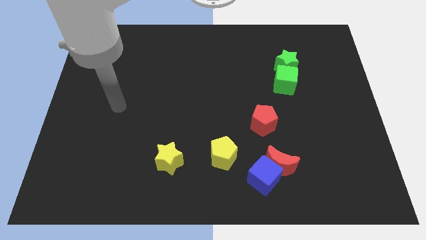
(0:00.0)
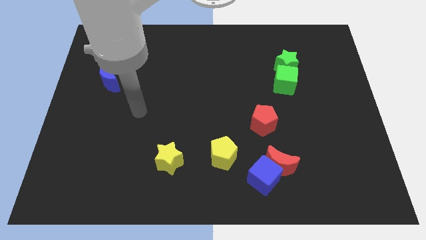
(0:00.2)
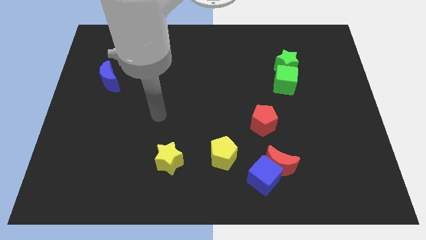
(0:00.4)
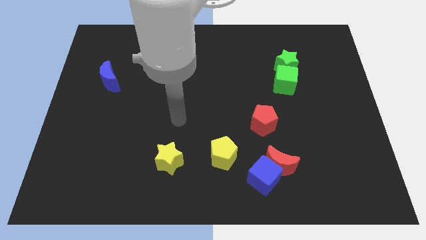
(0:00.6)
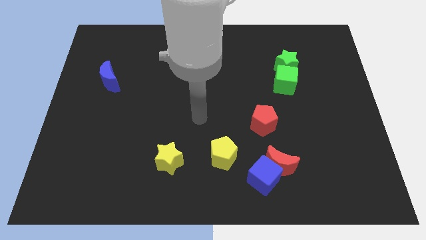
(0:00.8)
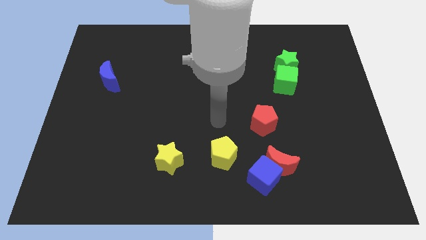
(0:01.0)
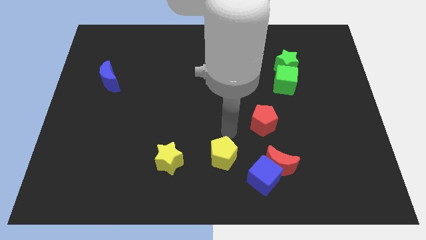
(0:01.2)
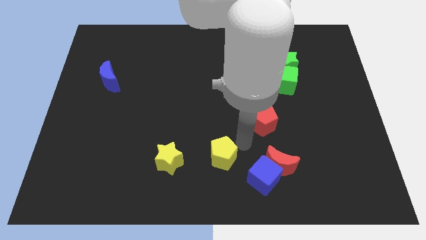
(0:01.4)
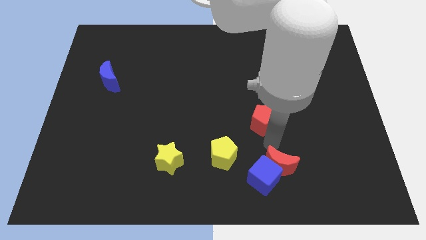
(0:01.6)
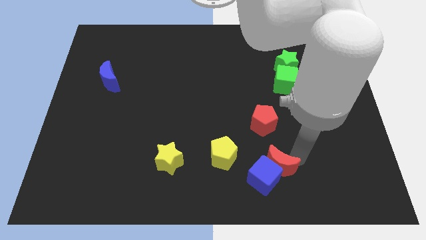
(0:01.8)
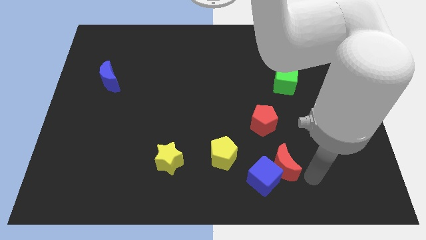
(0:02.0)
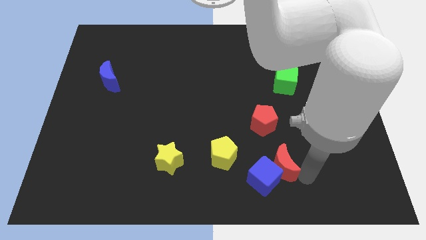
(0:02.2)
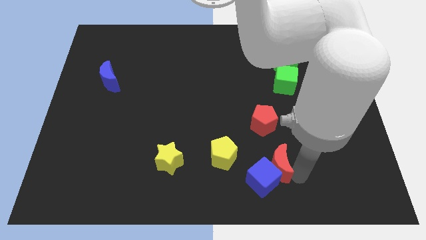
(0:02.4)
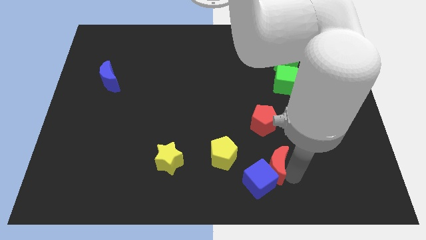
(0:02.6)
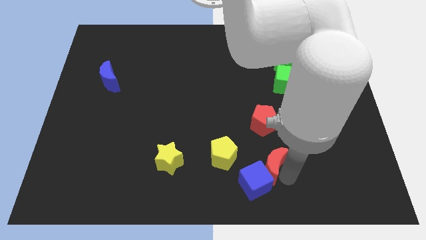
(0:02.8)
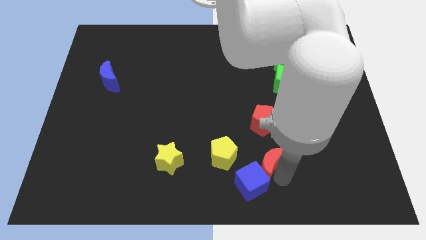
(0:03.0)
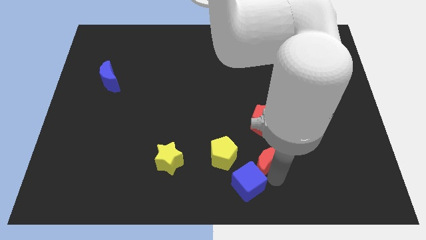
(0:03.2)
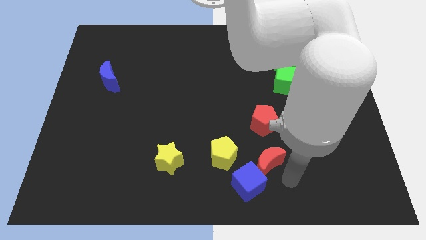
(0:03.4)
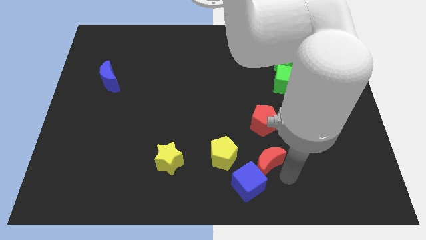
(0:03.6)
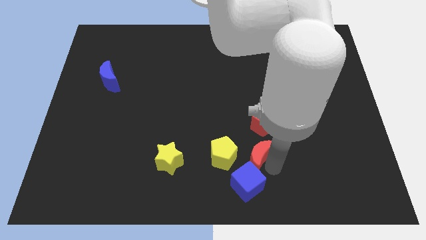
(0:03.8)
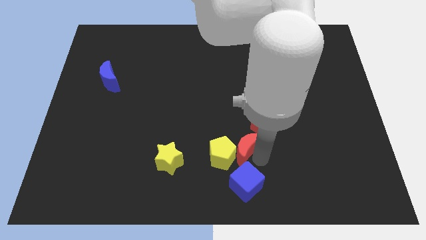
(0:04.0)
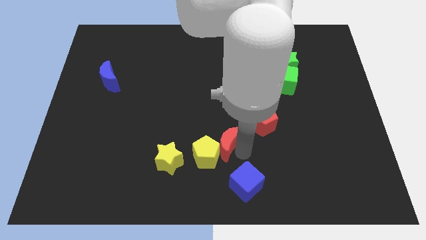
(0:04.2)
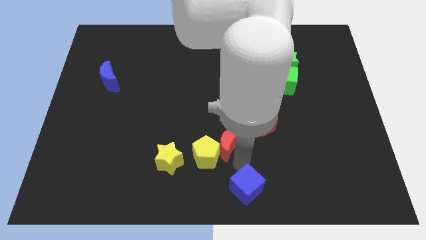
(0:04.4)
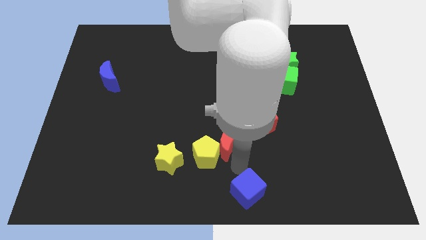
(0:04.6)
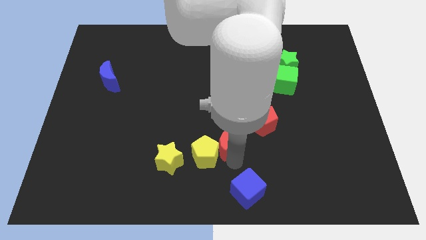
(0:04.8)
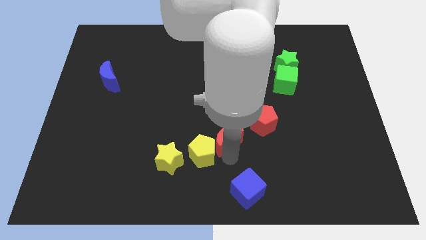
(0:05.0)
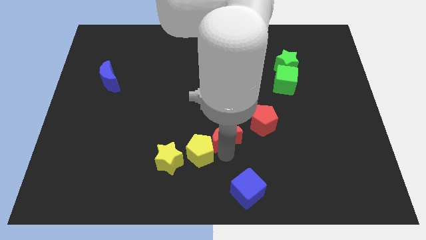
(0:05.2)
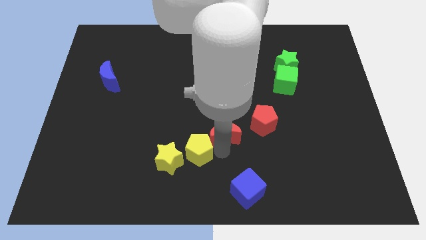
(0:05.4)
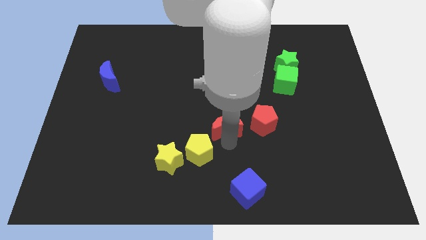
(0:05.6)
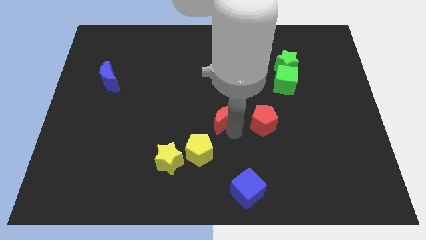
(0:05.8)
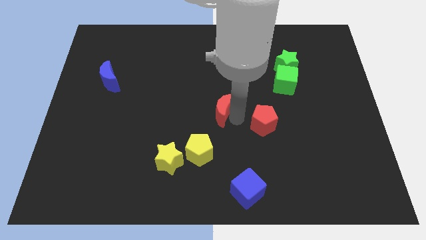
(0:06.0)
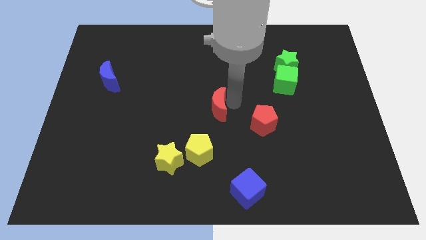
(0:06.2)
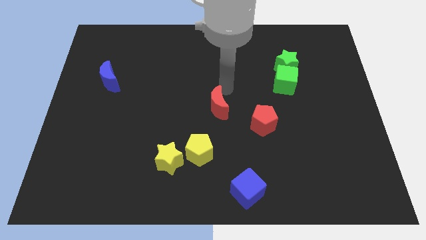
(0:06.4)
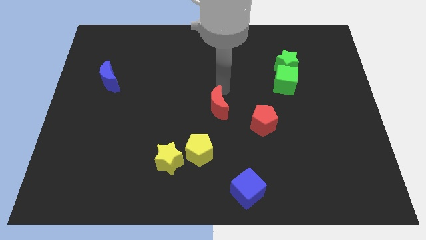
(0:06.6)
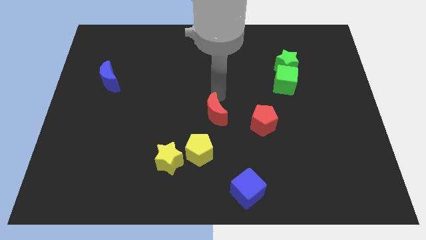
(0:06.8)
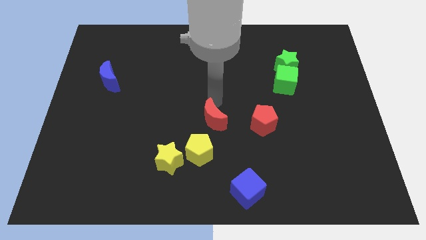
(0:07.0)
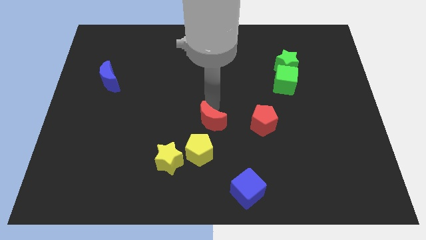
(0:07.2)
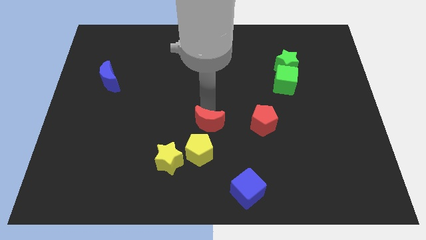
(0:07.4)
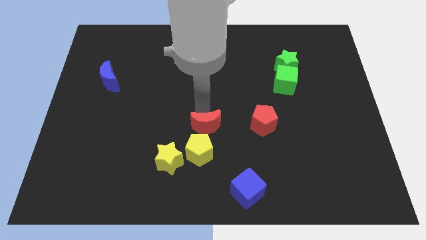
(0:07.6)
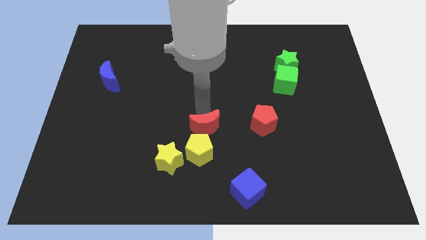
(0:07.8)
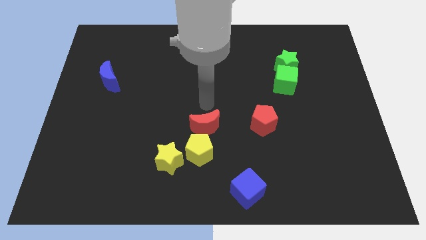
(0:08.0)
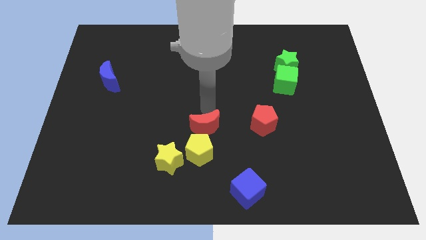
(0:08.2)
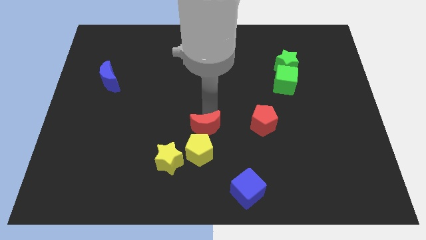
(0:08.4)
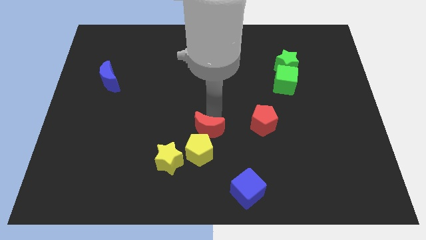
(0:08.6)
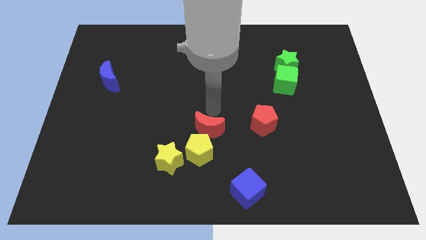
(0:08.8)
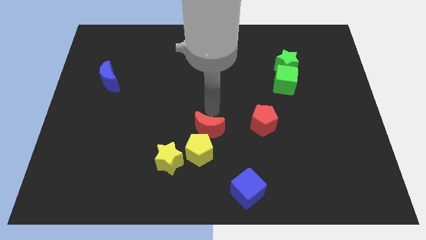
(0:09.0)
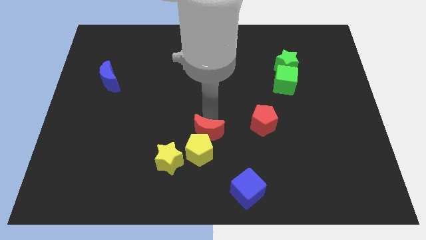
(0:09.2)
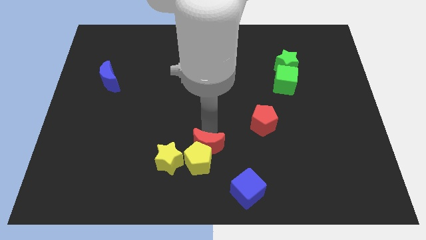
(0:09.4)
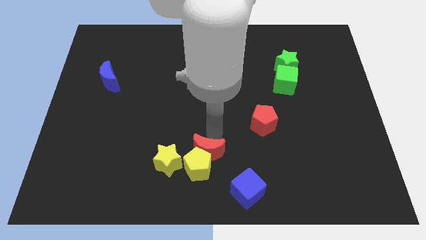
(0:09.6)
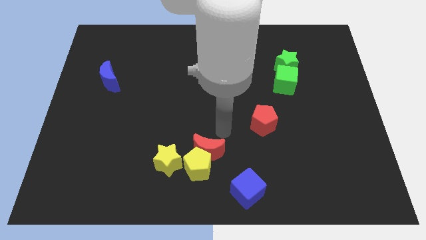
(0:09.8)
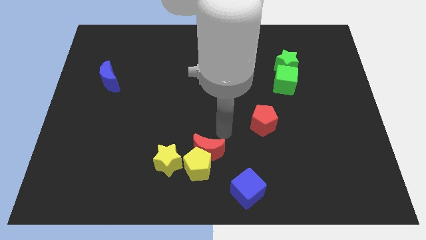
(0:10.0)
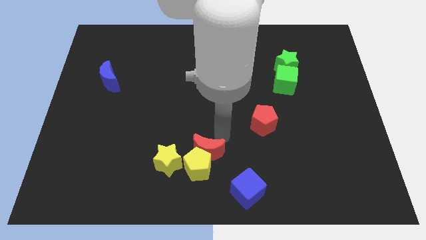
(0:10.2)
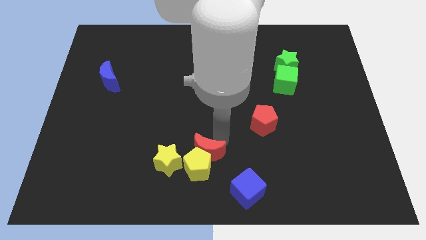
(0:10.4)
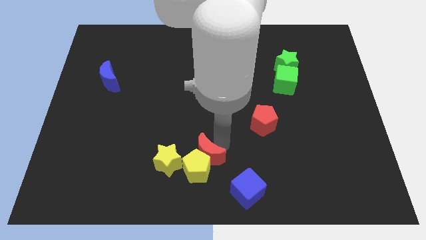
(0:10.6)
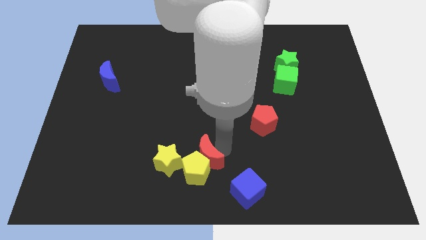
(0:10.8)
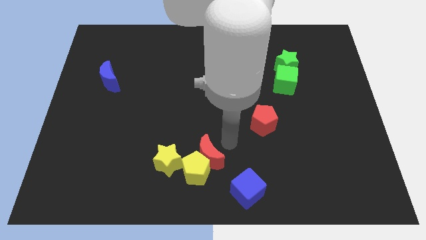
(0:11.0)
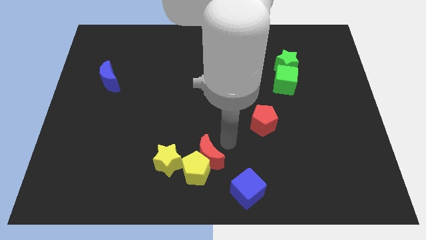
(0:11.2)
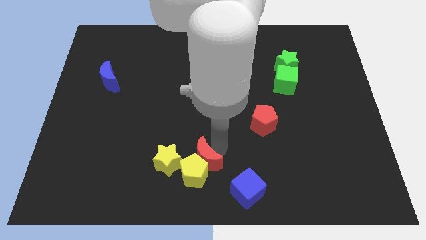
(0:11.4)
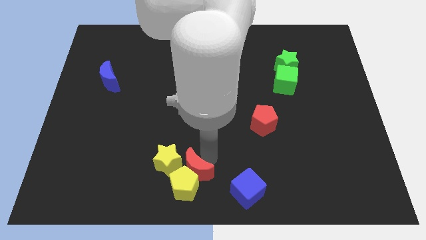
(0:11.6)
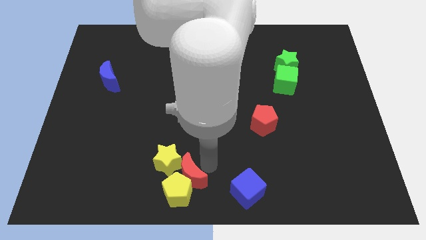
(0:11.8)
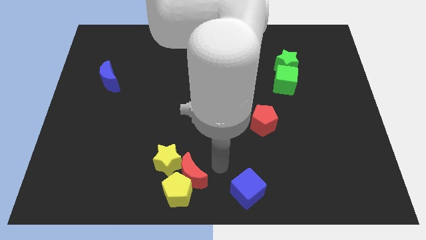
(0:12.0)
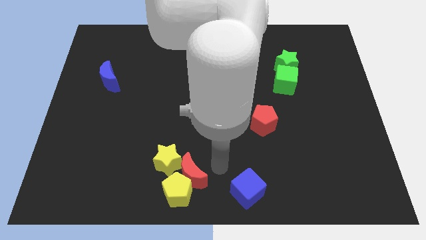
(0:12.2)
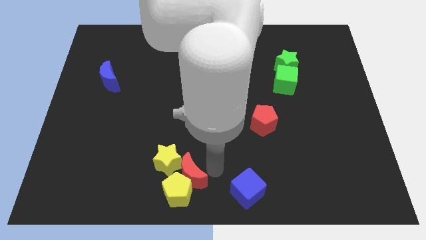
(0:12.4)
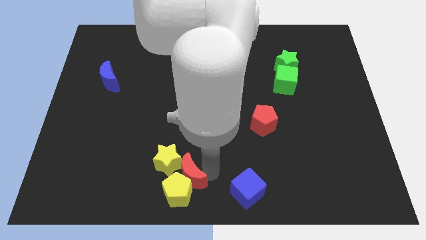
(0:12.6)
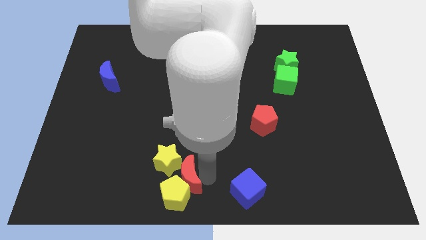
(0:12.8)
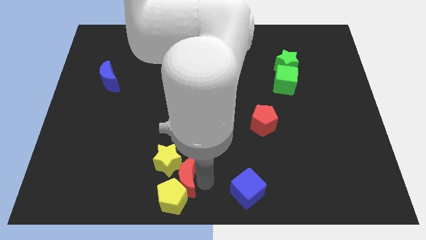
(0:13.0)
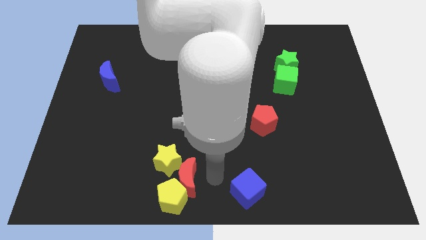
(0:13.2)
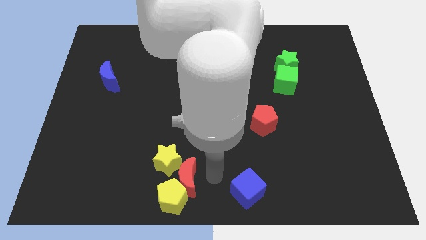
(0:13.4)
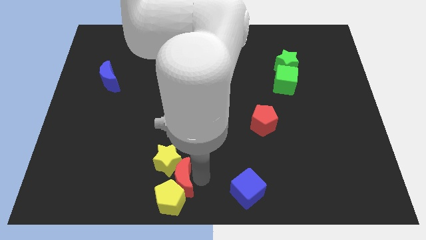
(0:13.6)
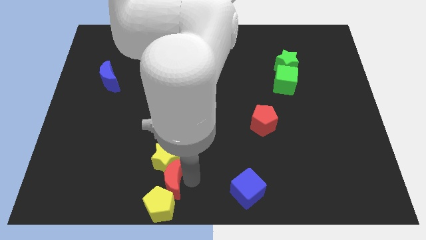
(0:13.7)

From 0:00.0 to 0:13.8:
push the red moon to the bottom left side of the yellow star
